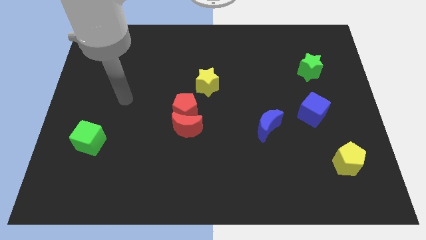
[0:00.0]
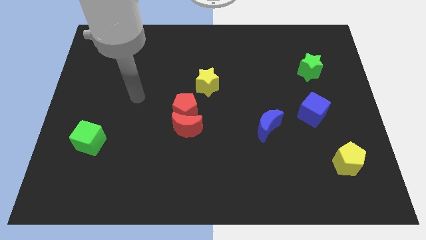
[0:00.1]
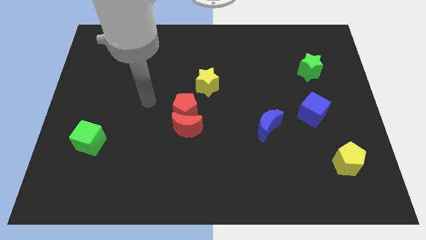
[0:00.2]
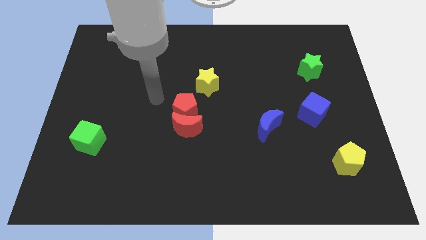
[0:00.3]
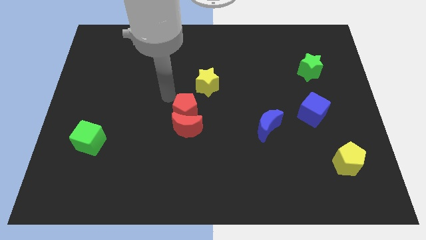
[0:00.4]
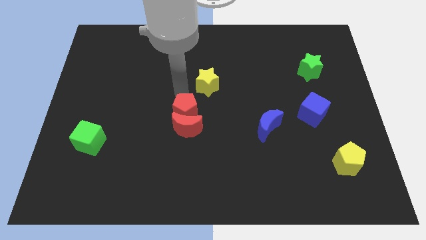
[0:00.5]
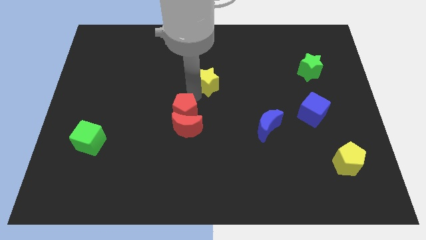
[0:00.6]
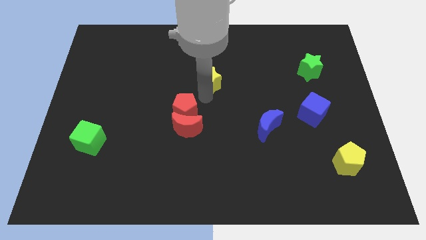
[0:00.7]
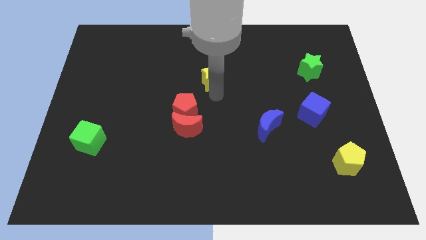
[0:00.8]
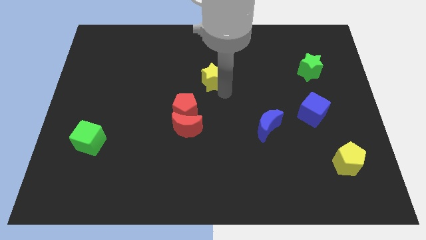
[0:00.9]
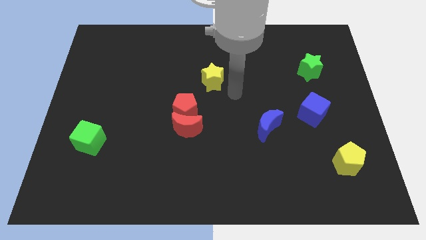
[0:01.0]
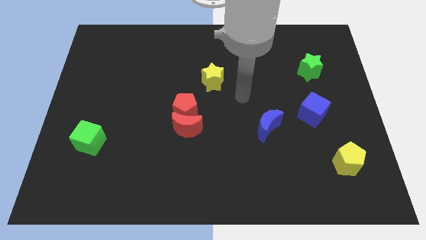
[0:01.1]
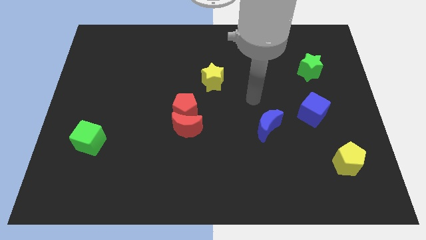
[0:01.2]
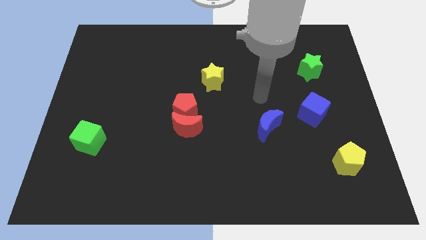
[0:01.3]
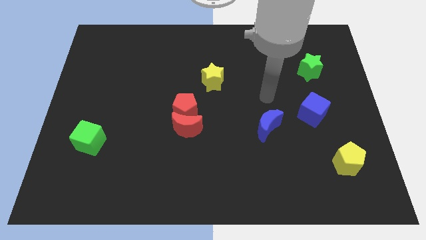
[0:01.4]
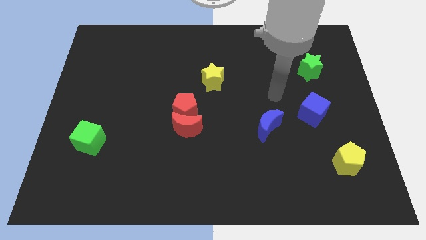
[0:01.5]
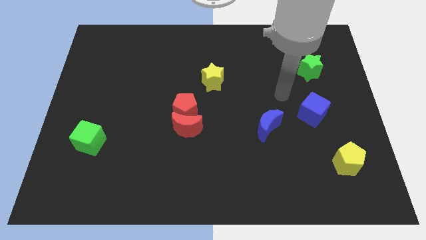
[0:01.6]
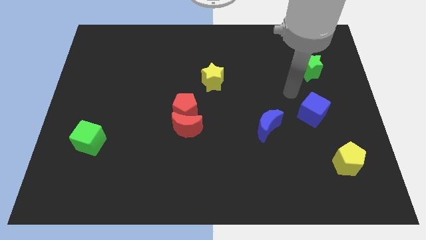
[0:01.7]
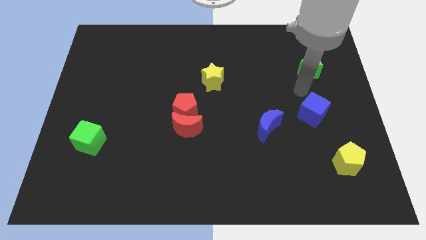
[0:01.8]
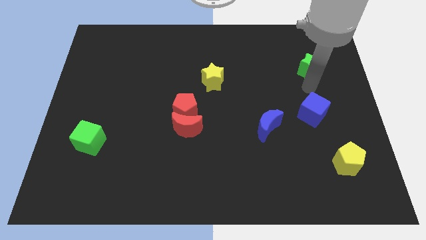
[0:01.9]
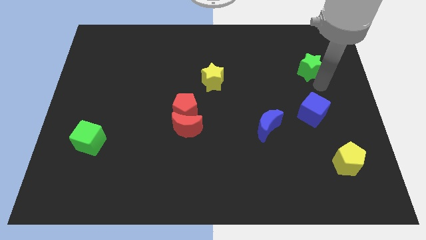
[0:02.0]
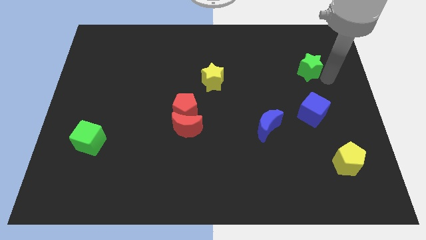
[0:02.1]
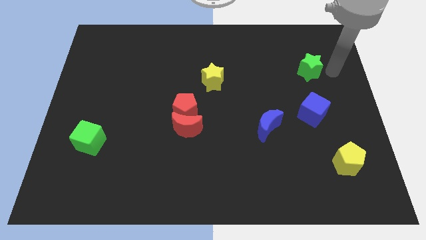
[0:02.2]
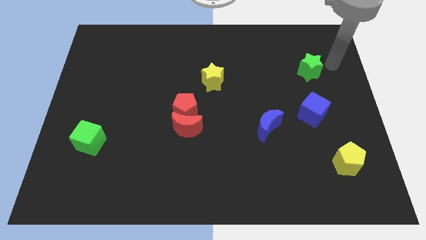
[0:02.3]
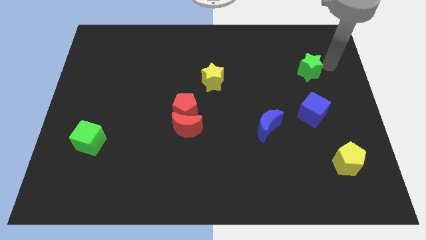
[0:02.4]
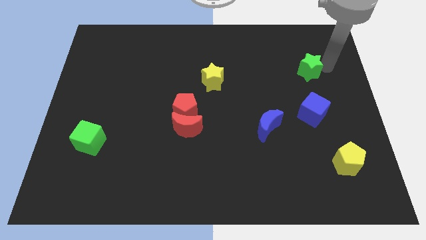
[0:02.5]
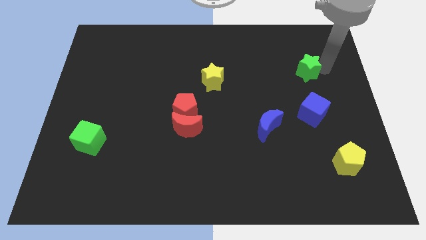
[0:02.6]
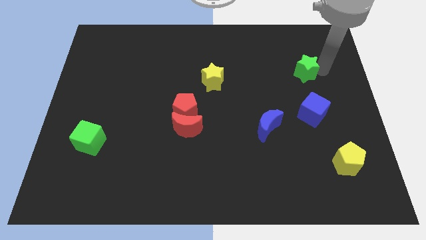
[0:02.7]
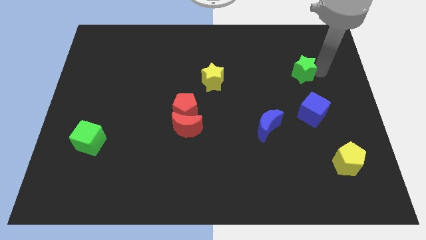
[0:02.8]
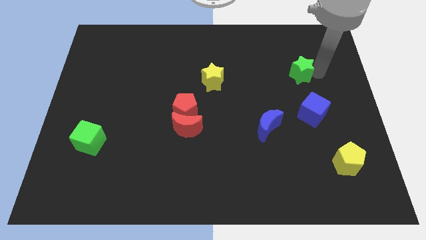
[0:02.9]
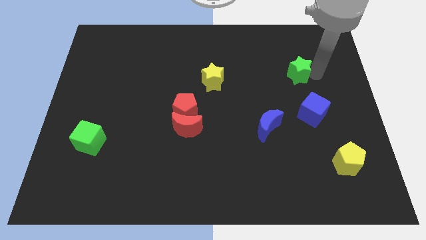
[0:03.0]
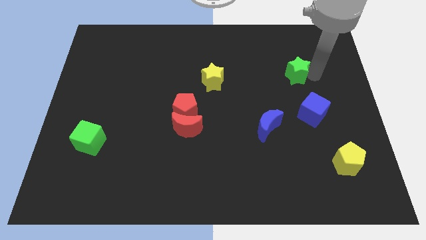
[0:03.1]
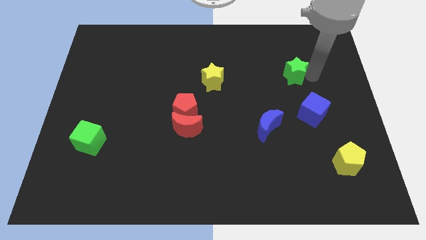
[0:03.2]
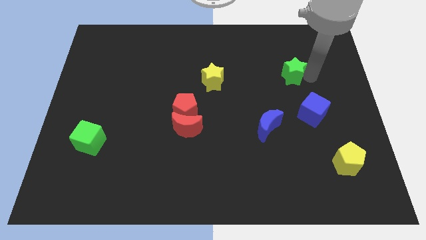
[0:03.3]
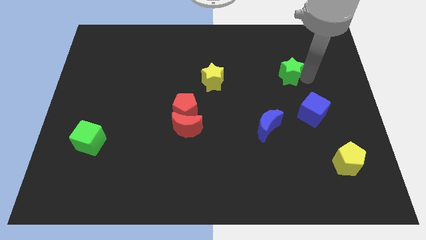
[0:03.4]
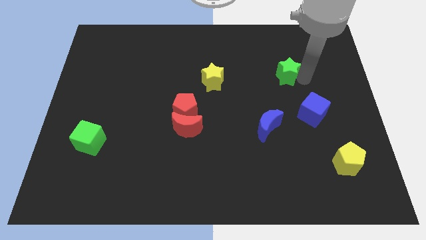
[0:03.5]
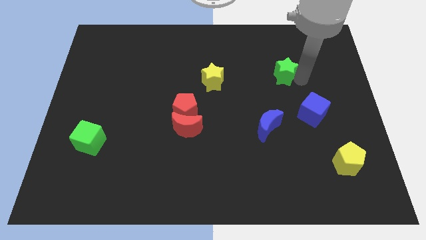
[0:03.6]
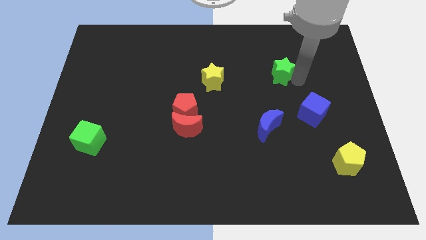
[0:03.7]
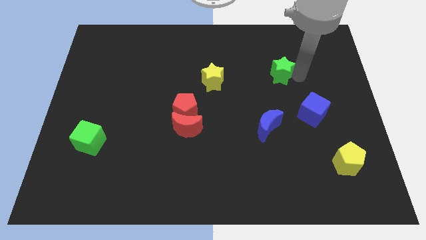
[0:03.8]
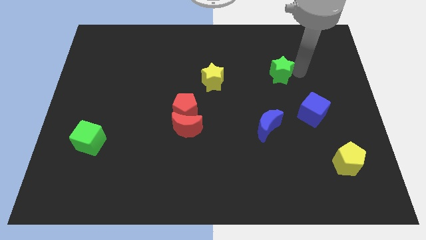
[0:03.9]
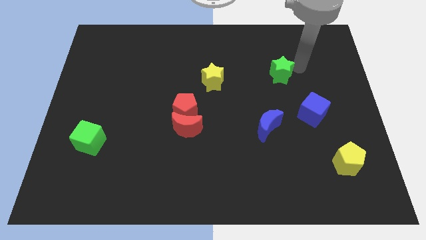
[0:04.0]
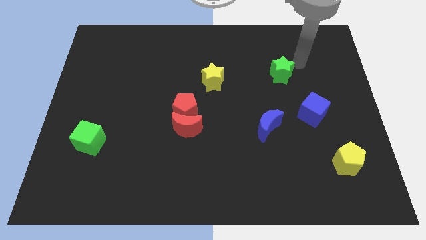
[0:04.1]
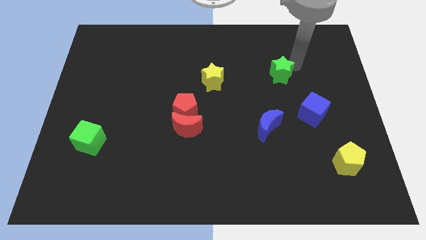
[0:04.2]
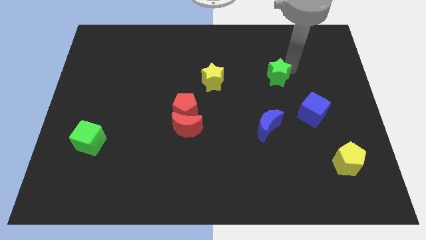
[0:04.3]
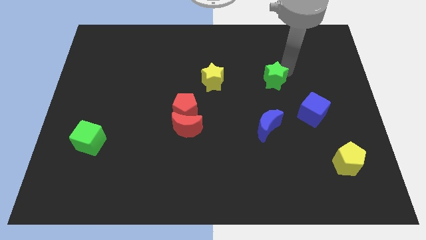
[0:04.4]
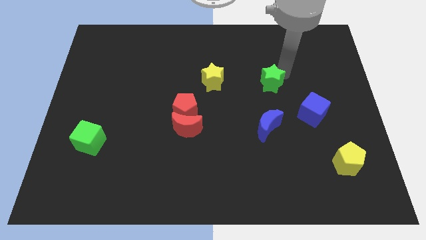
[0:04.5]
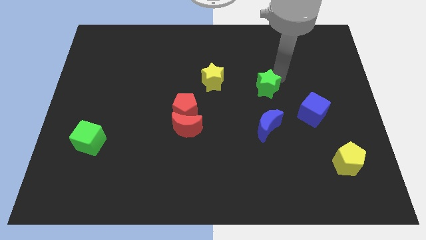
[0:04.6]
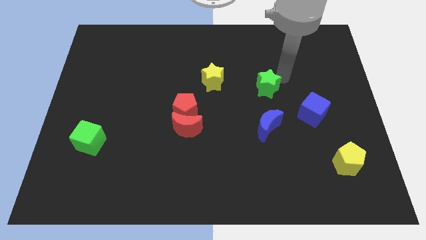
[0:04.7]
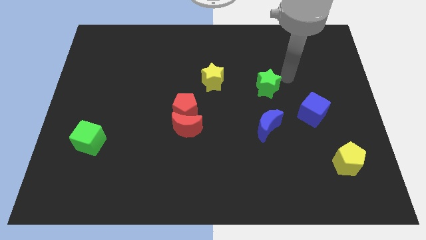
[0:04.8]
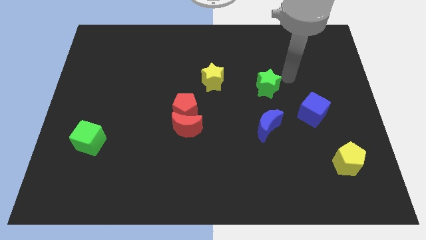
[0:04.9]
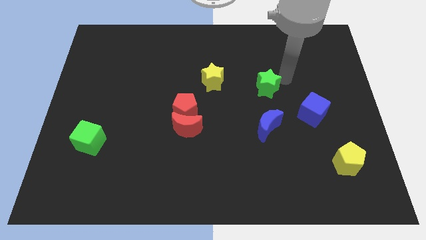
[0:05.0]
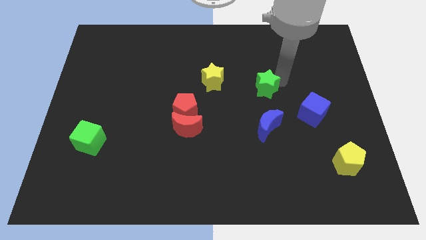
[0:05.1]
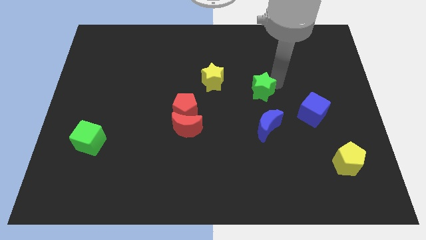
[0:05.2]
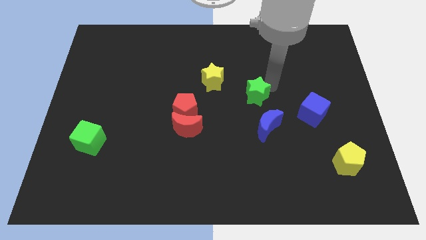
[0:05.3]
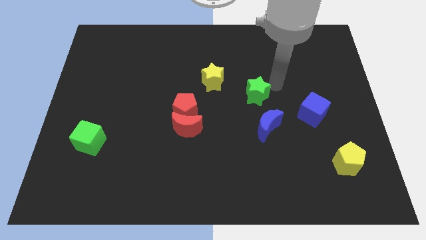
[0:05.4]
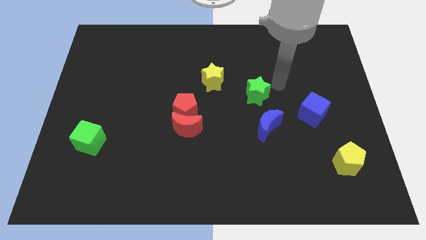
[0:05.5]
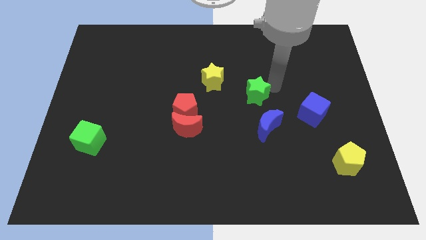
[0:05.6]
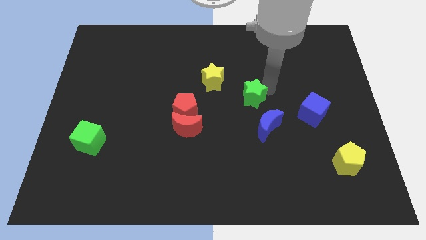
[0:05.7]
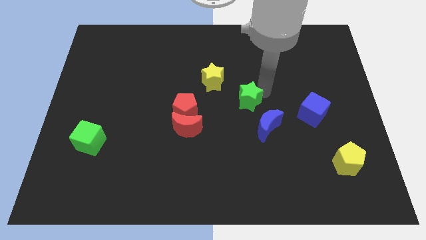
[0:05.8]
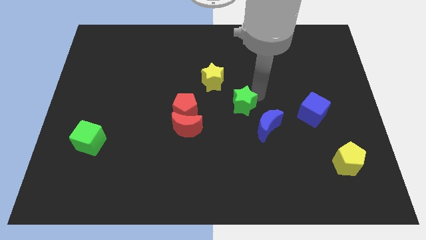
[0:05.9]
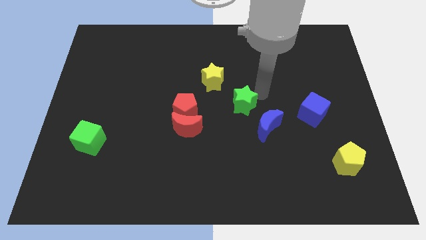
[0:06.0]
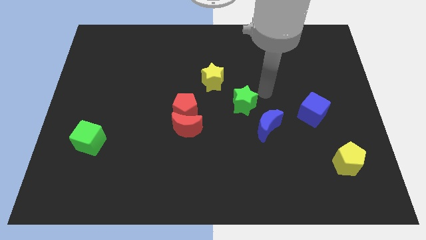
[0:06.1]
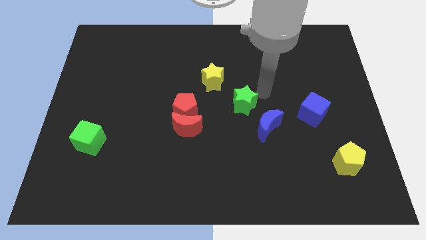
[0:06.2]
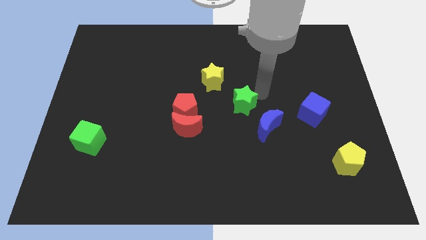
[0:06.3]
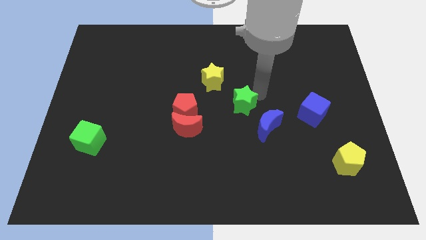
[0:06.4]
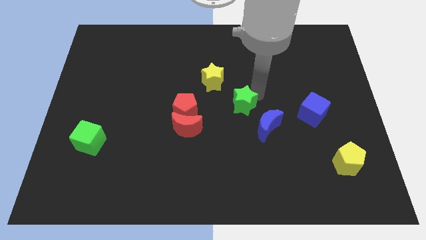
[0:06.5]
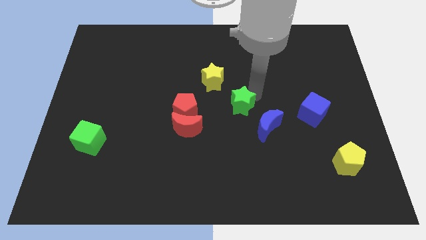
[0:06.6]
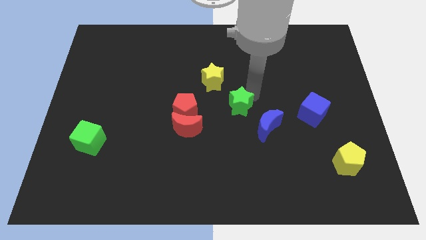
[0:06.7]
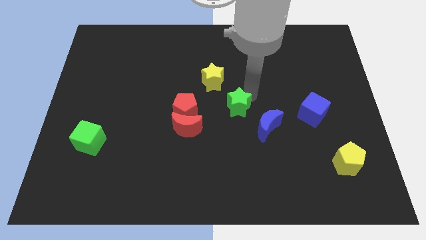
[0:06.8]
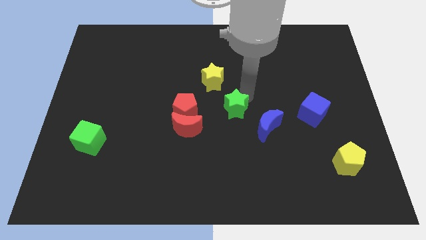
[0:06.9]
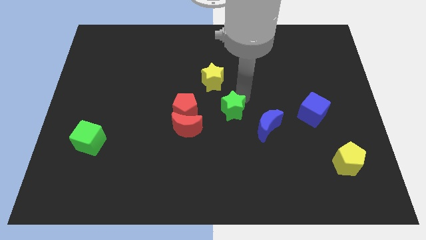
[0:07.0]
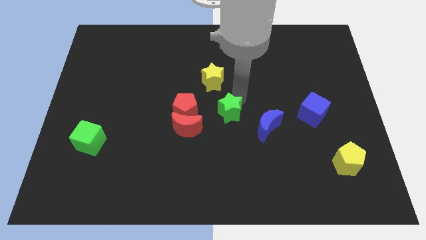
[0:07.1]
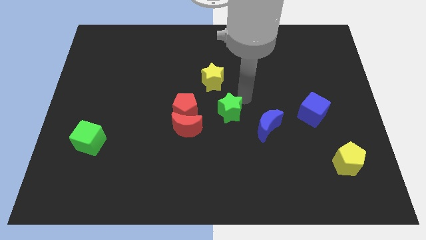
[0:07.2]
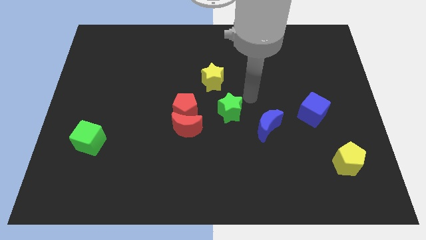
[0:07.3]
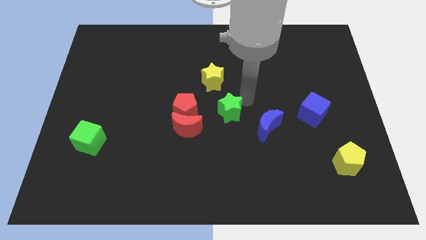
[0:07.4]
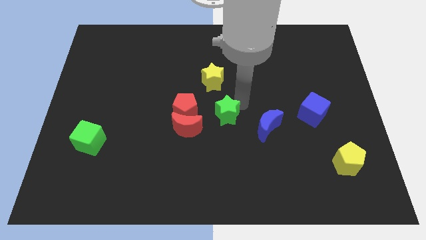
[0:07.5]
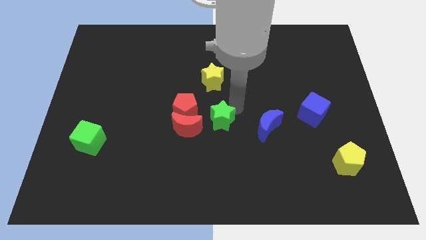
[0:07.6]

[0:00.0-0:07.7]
move the green star diagonally down and to the right of the red pentagon
